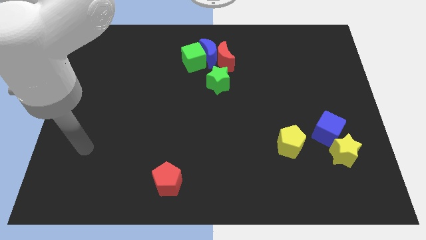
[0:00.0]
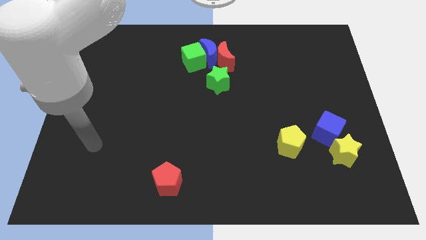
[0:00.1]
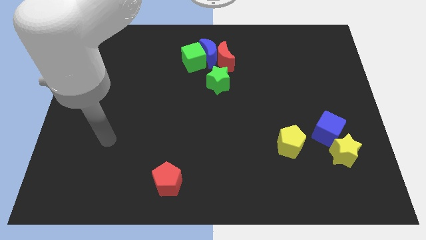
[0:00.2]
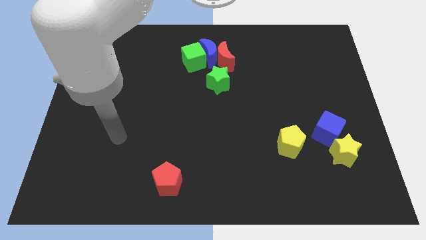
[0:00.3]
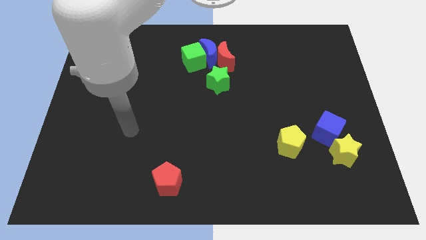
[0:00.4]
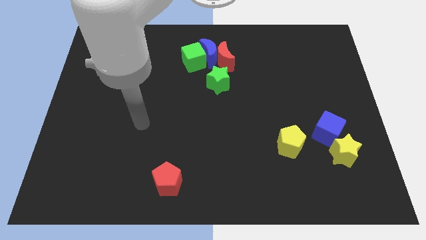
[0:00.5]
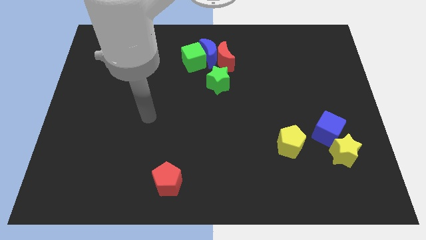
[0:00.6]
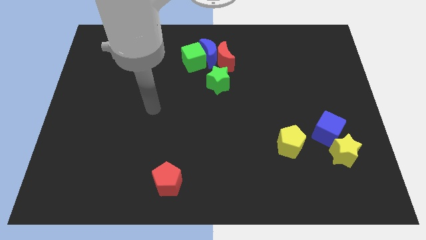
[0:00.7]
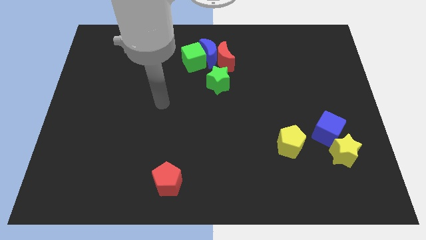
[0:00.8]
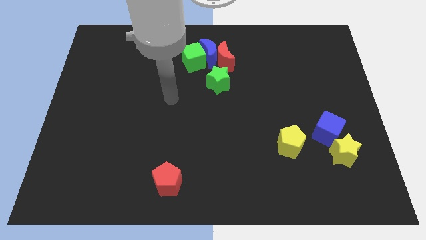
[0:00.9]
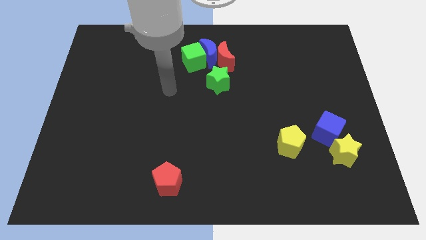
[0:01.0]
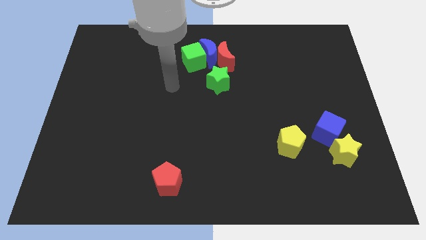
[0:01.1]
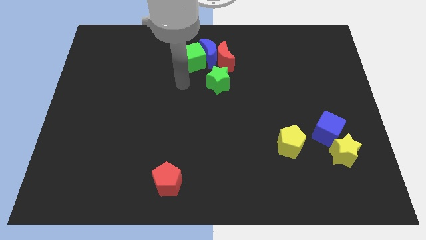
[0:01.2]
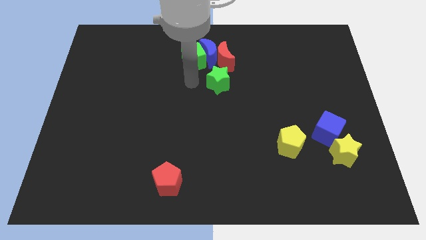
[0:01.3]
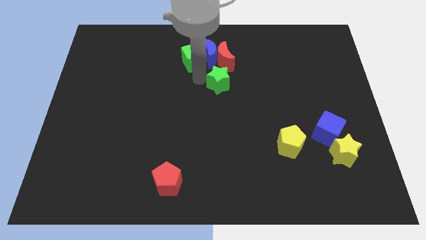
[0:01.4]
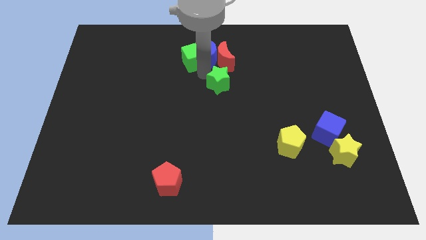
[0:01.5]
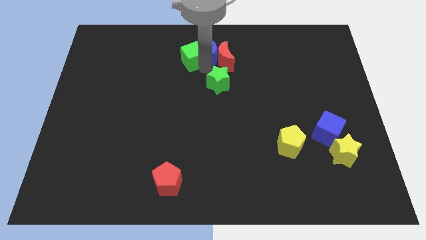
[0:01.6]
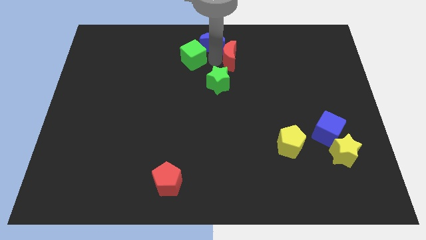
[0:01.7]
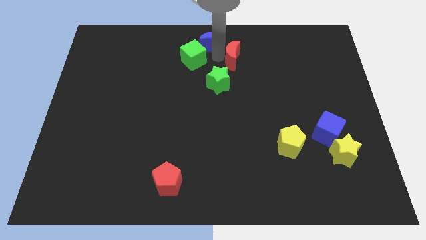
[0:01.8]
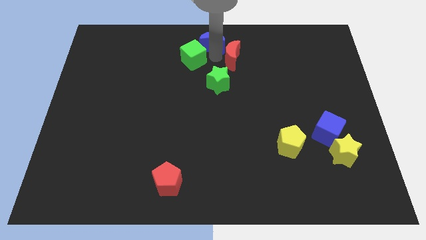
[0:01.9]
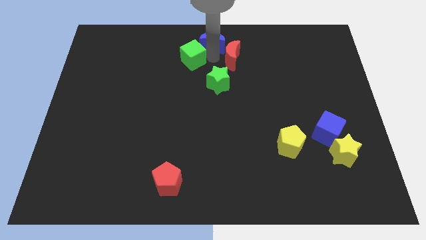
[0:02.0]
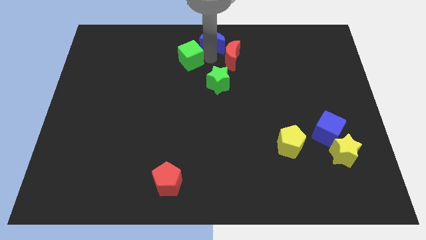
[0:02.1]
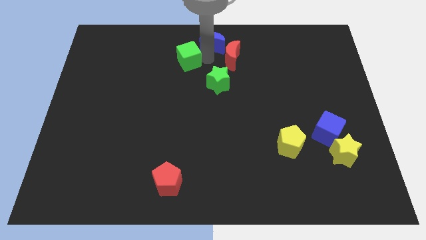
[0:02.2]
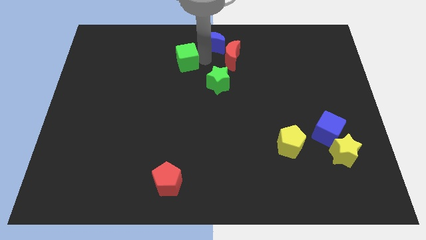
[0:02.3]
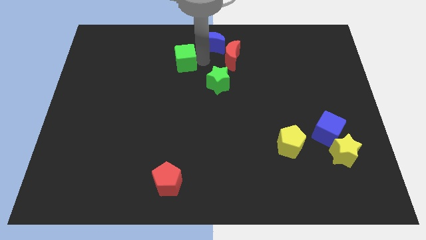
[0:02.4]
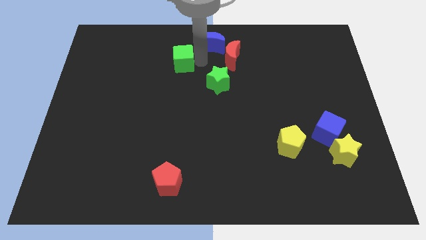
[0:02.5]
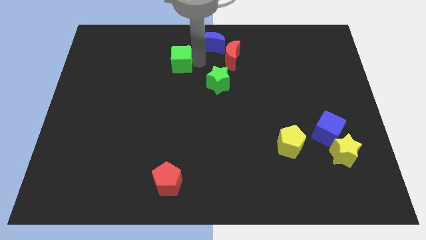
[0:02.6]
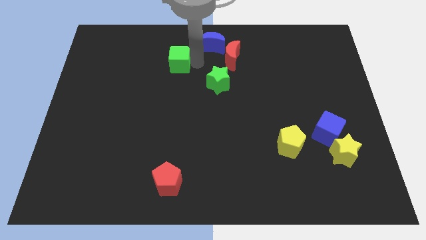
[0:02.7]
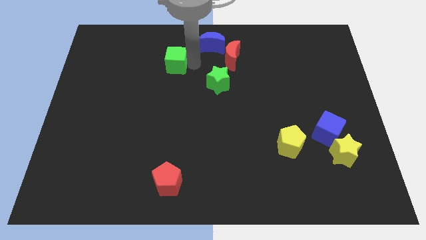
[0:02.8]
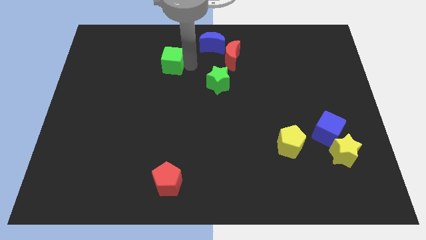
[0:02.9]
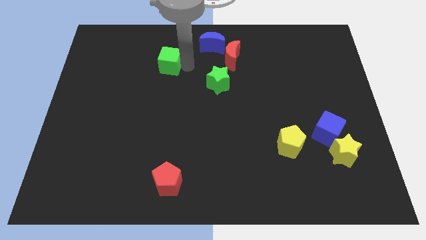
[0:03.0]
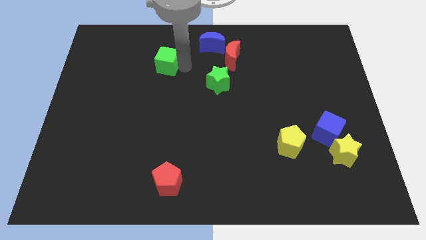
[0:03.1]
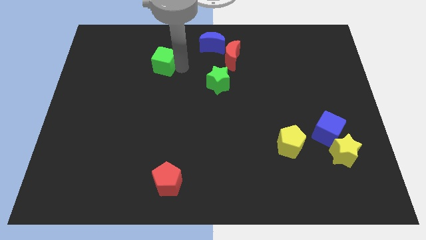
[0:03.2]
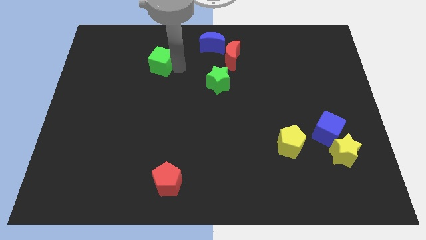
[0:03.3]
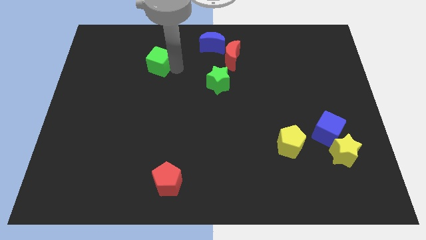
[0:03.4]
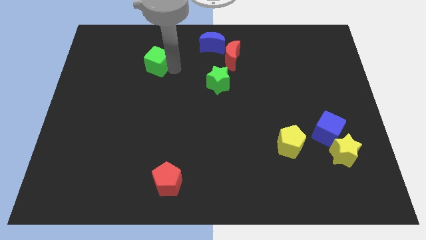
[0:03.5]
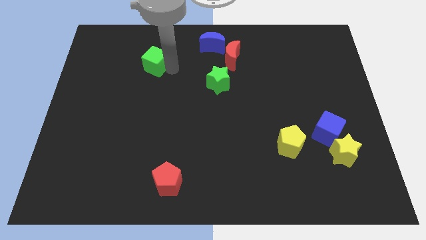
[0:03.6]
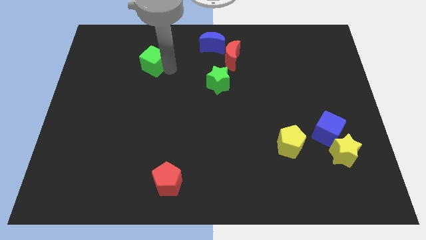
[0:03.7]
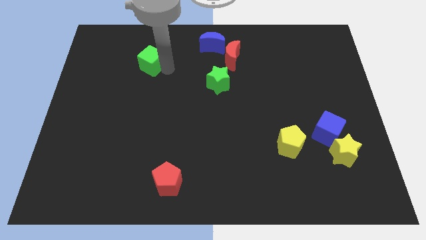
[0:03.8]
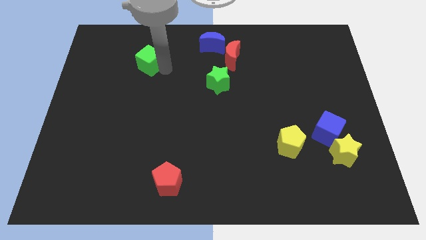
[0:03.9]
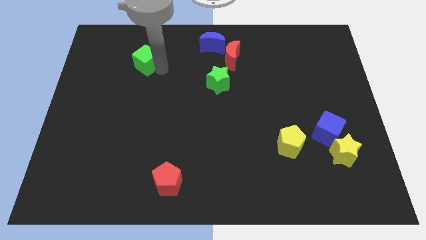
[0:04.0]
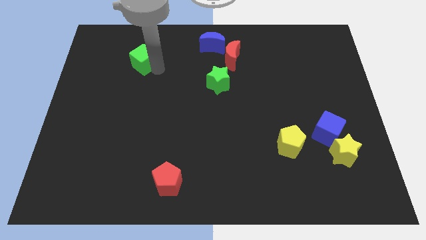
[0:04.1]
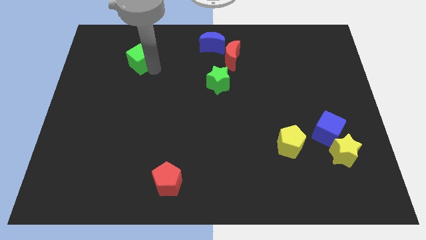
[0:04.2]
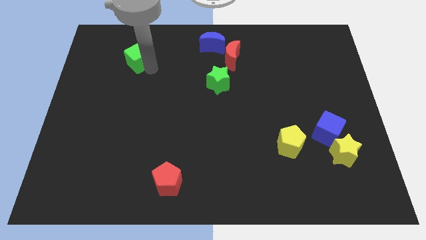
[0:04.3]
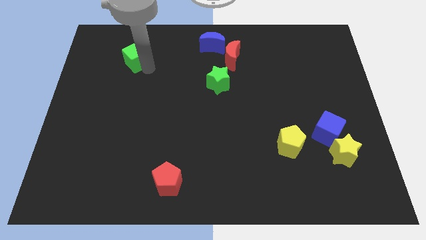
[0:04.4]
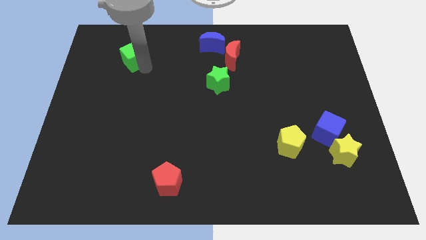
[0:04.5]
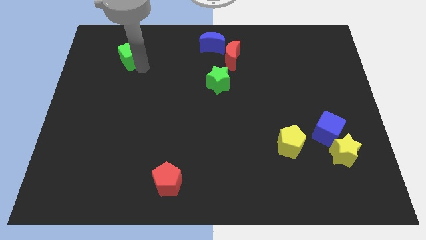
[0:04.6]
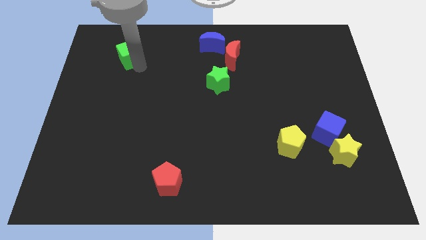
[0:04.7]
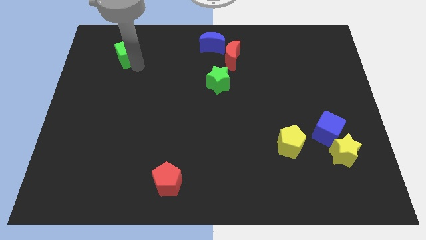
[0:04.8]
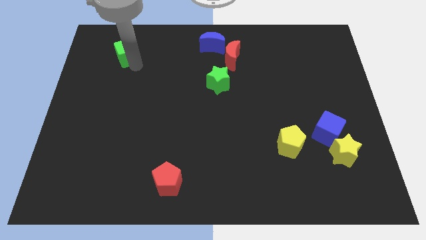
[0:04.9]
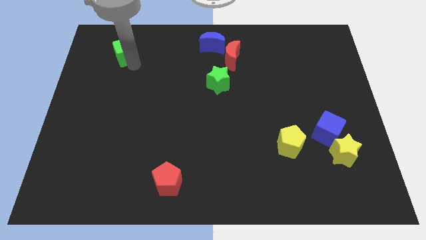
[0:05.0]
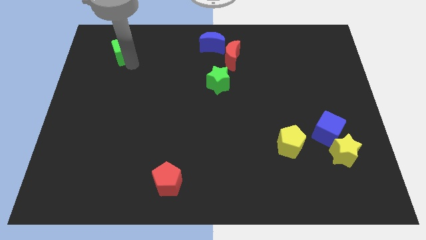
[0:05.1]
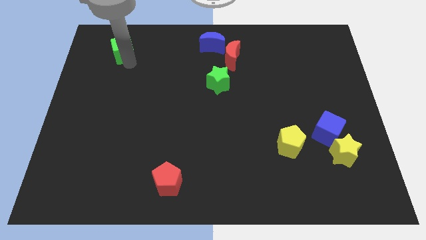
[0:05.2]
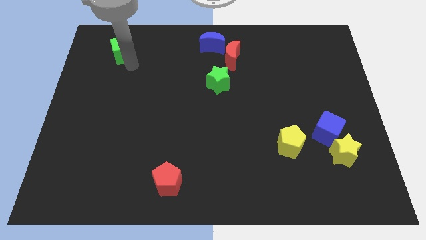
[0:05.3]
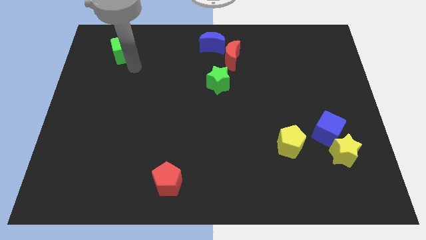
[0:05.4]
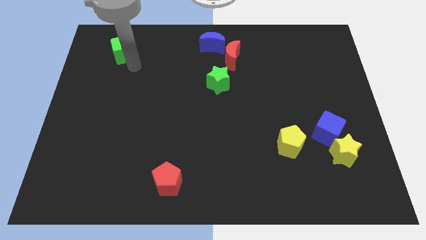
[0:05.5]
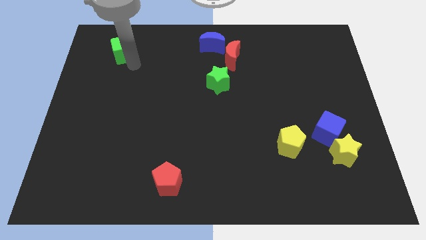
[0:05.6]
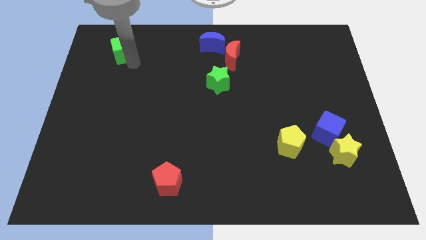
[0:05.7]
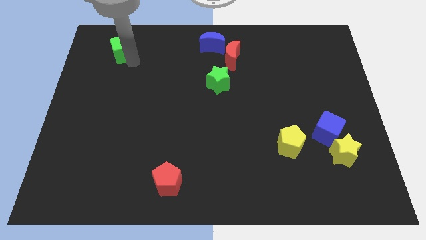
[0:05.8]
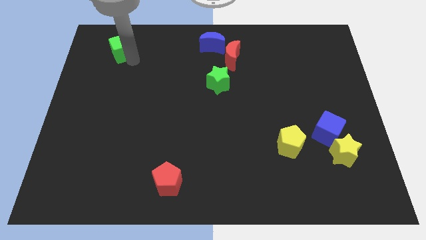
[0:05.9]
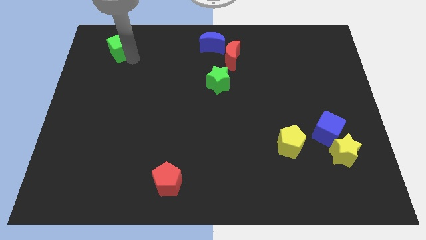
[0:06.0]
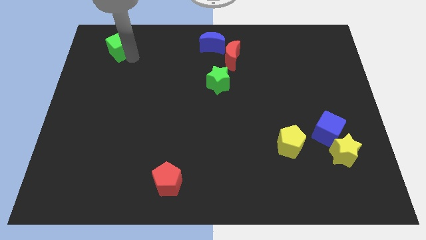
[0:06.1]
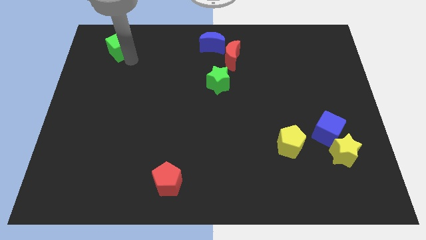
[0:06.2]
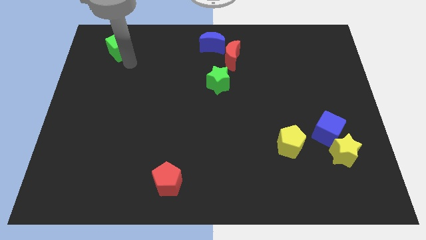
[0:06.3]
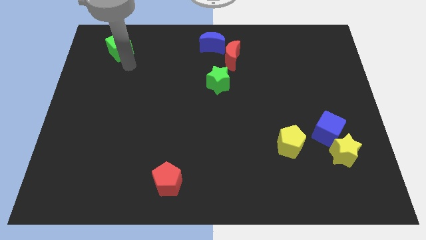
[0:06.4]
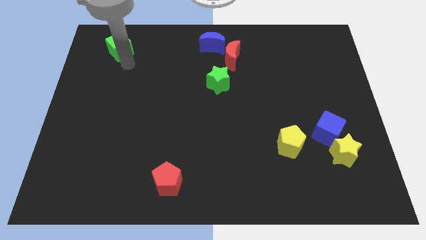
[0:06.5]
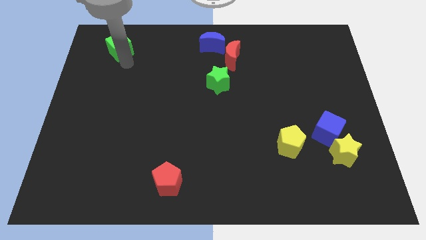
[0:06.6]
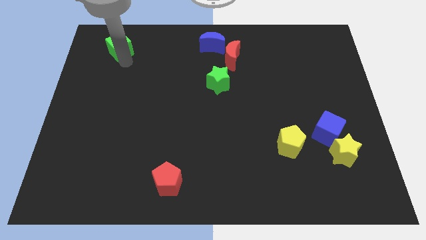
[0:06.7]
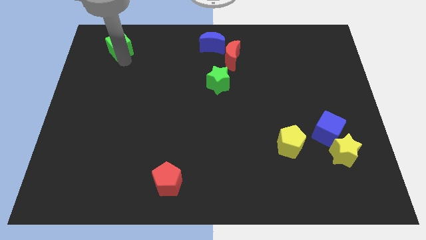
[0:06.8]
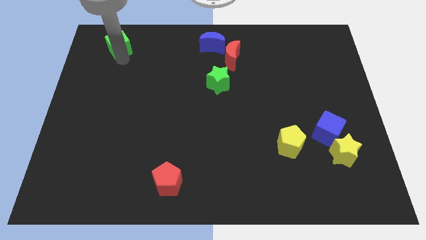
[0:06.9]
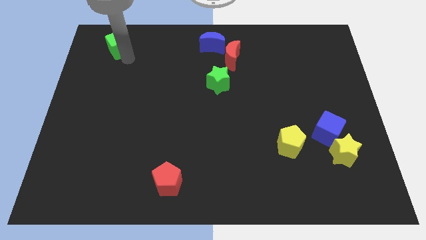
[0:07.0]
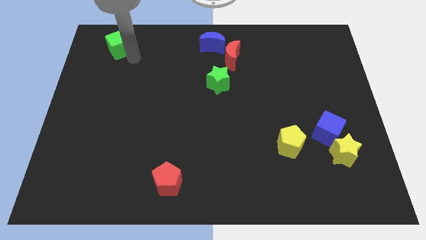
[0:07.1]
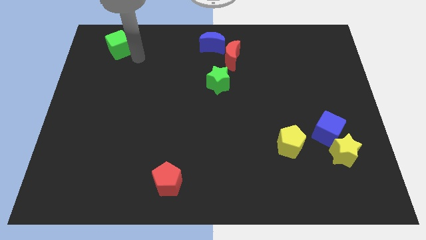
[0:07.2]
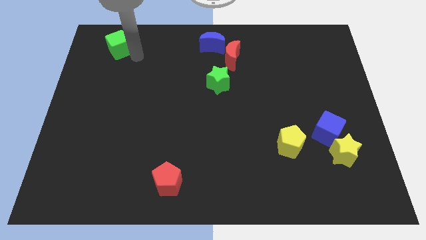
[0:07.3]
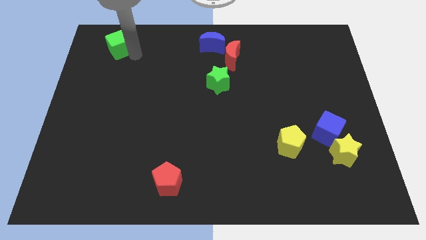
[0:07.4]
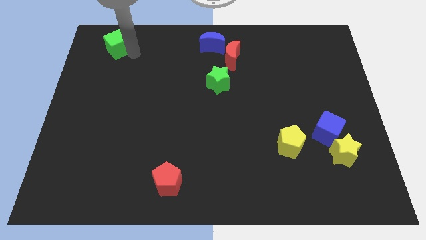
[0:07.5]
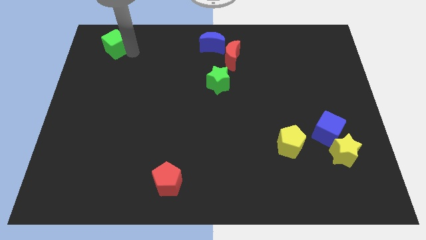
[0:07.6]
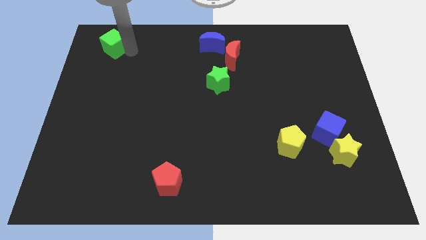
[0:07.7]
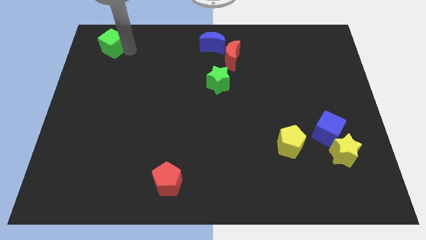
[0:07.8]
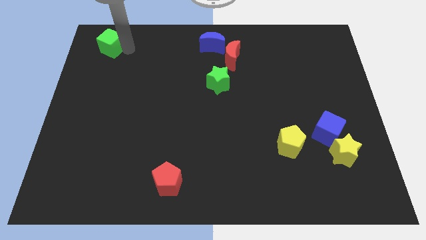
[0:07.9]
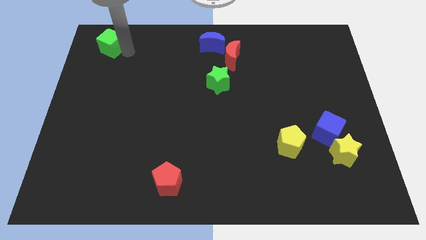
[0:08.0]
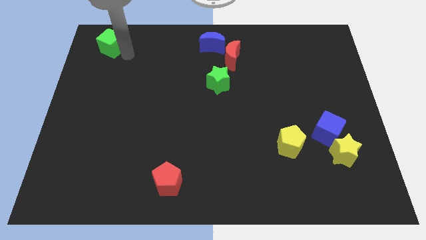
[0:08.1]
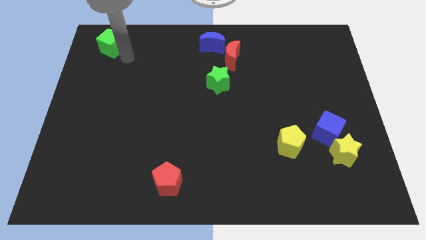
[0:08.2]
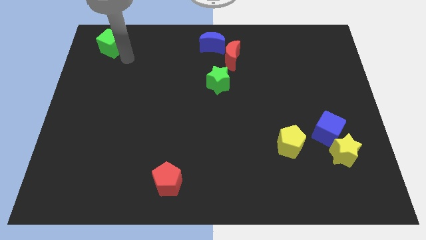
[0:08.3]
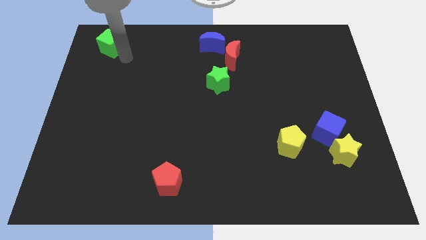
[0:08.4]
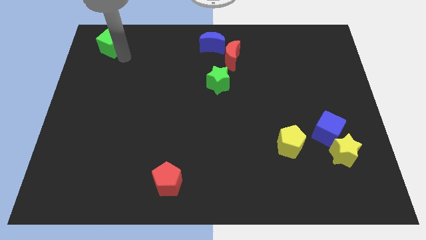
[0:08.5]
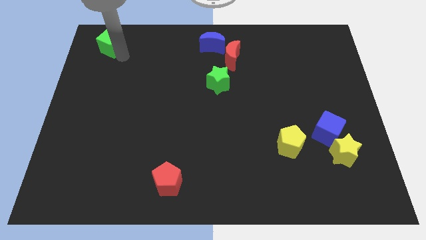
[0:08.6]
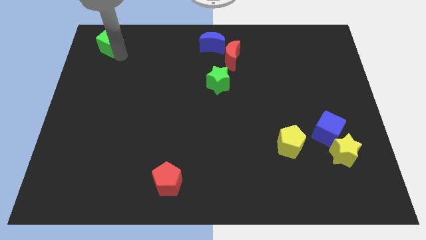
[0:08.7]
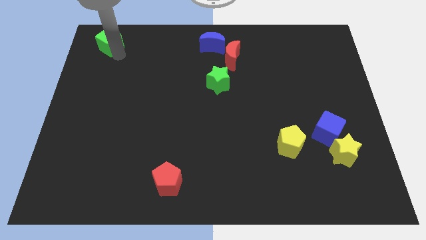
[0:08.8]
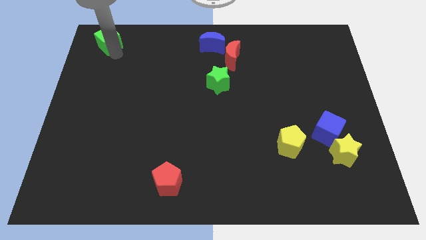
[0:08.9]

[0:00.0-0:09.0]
put the green cube to the top left corner
